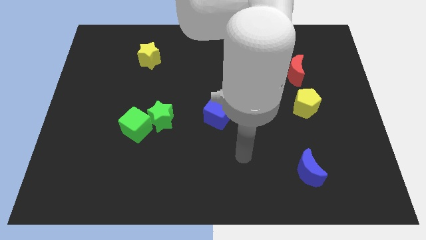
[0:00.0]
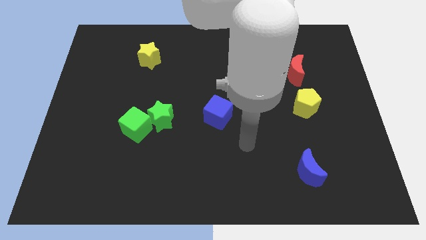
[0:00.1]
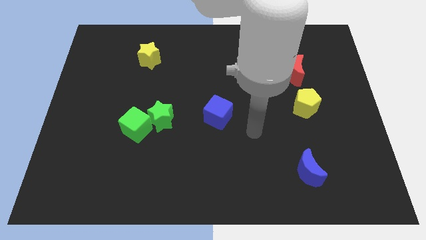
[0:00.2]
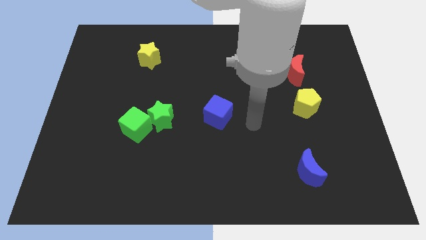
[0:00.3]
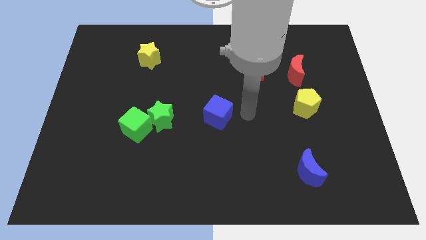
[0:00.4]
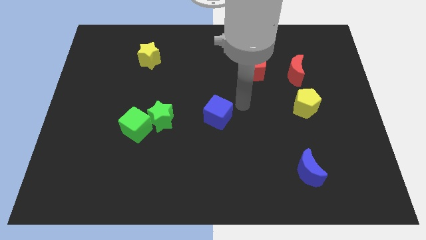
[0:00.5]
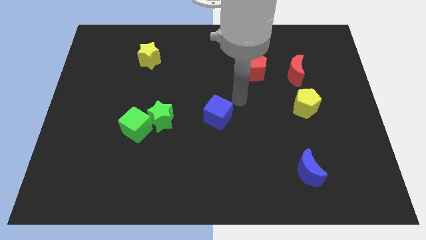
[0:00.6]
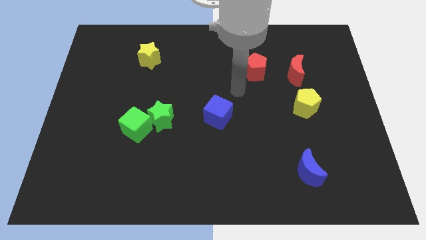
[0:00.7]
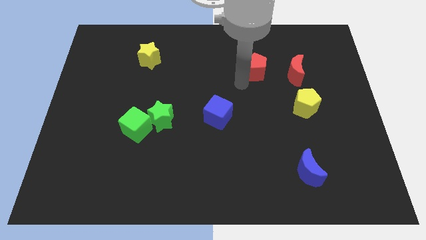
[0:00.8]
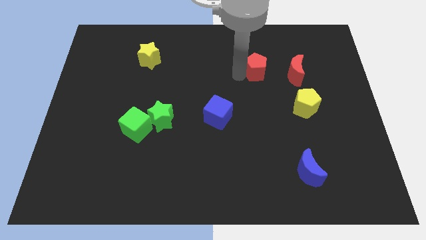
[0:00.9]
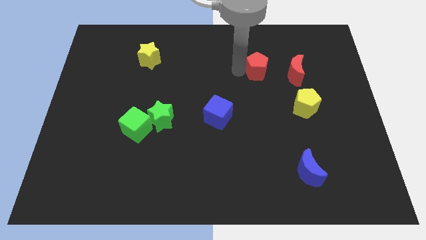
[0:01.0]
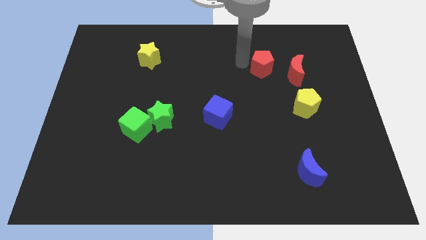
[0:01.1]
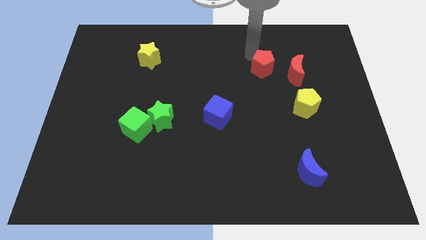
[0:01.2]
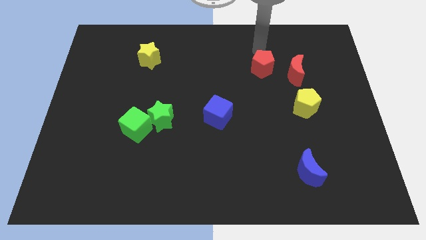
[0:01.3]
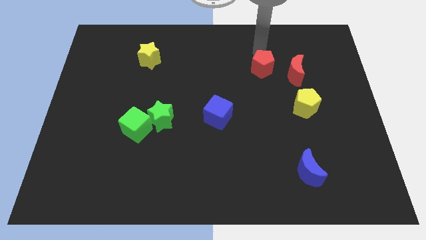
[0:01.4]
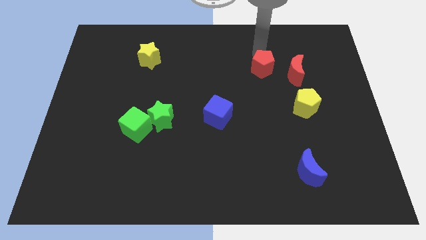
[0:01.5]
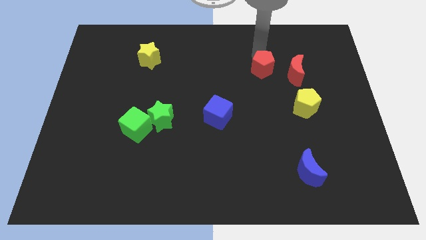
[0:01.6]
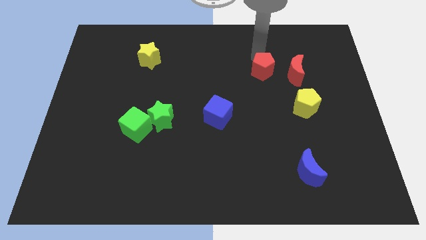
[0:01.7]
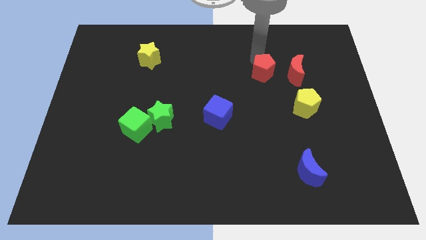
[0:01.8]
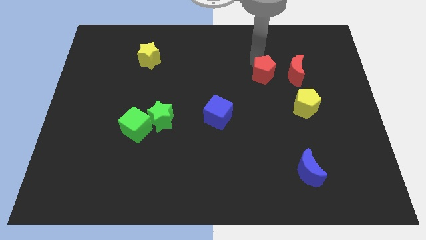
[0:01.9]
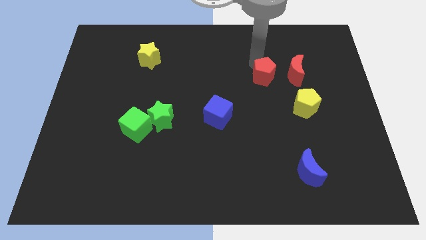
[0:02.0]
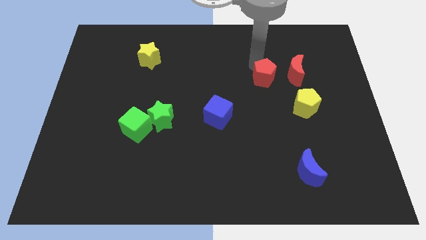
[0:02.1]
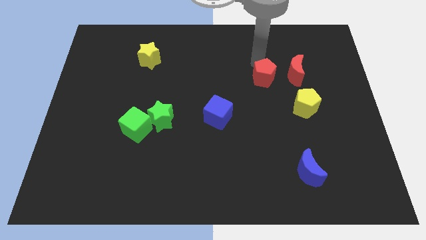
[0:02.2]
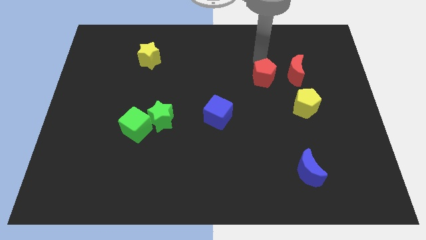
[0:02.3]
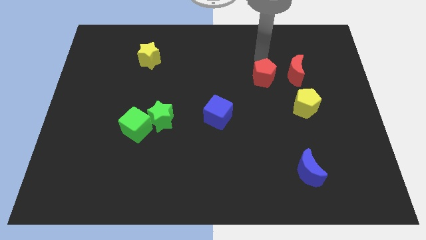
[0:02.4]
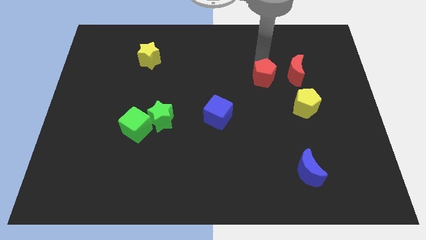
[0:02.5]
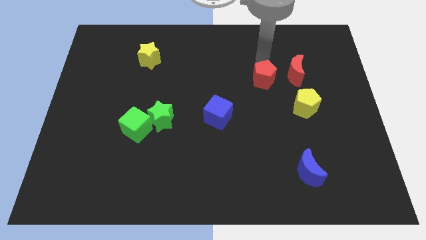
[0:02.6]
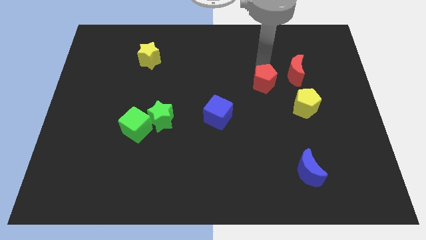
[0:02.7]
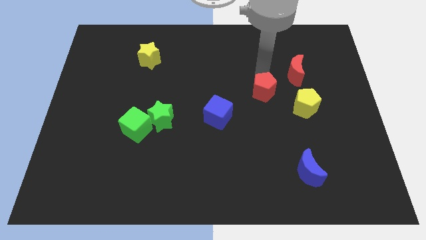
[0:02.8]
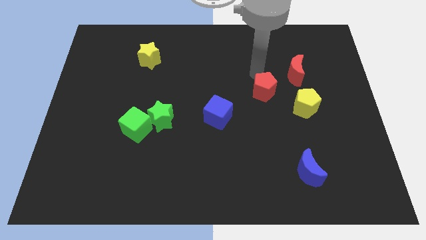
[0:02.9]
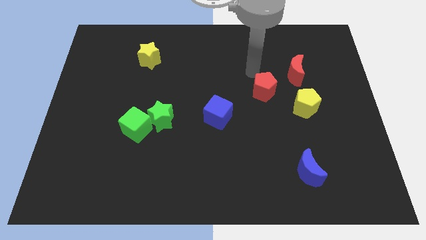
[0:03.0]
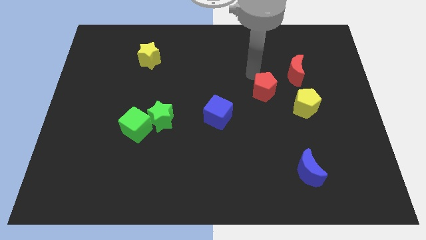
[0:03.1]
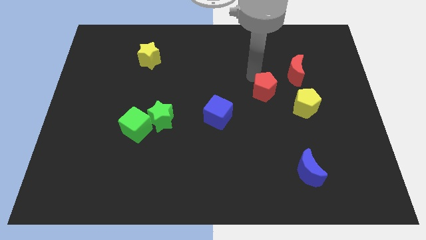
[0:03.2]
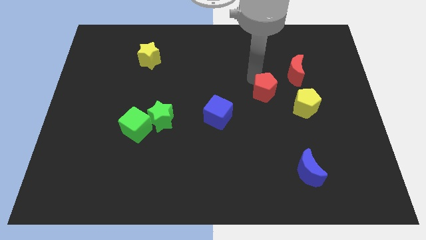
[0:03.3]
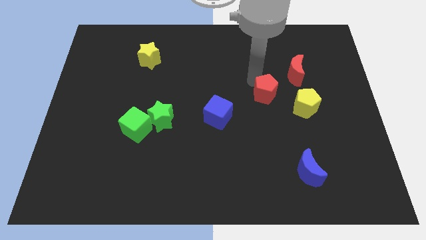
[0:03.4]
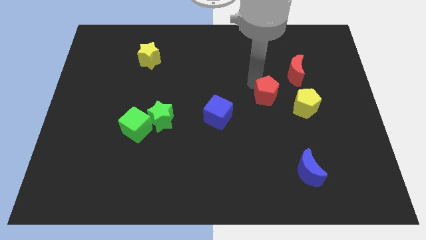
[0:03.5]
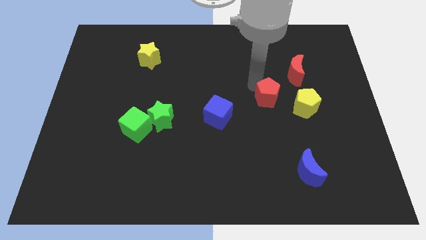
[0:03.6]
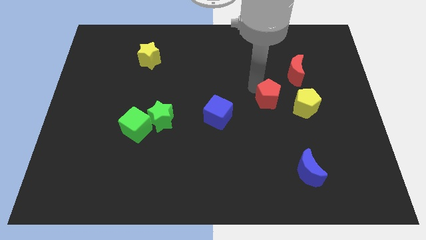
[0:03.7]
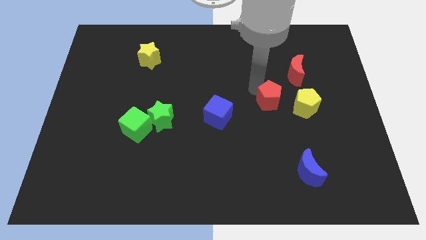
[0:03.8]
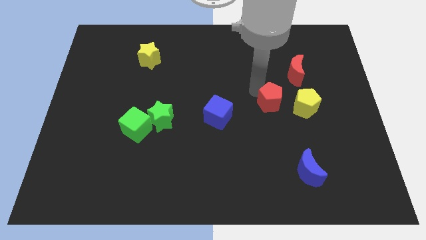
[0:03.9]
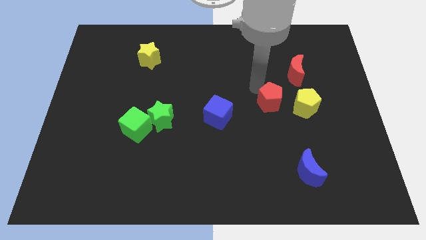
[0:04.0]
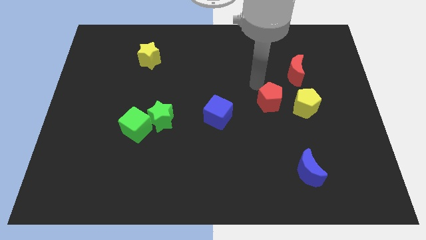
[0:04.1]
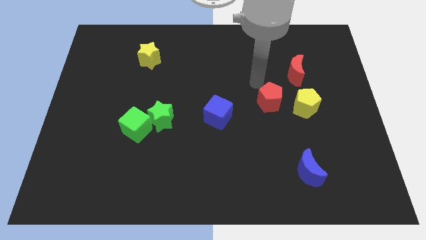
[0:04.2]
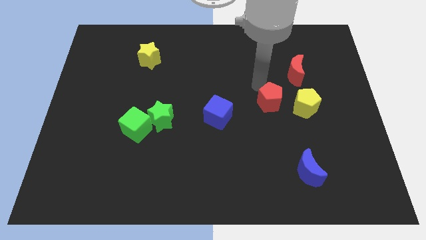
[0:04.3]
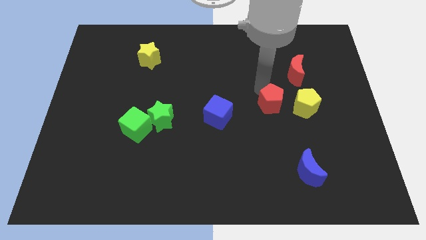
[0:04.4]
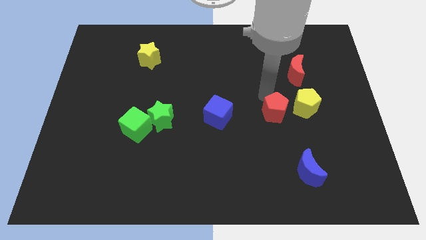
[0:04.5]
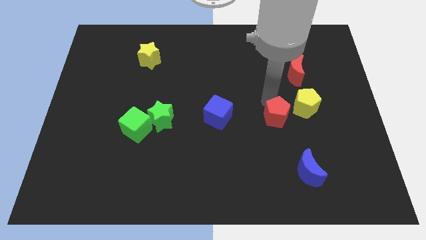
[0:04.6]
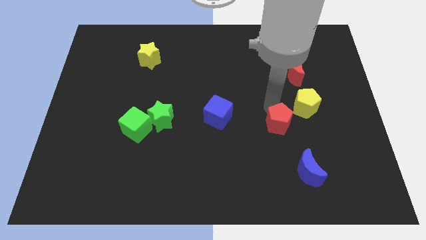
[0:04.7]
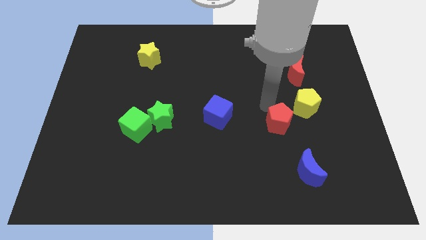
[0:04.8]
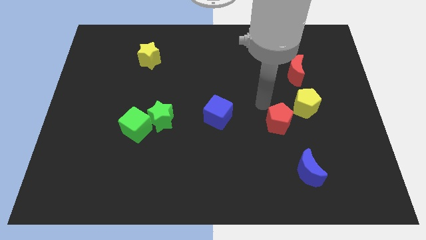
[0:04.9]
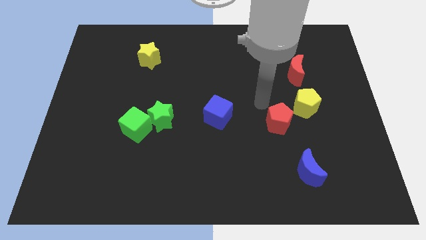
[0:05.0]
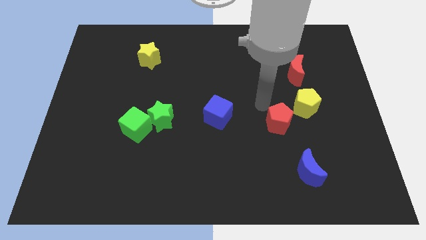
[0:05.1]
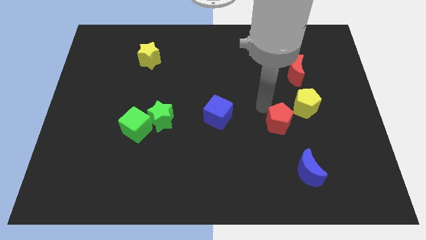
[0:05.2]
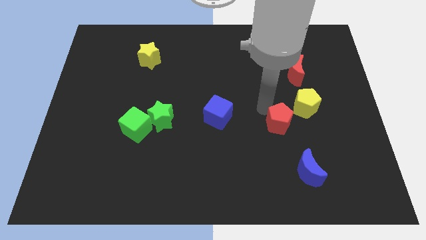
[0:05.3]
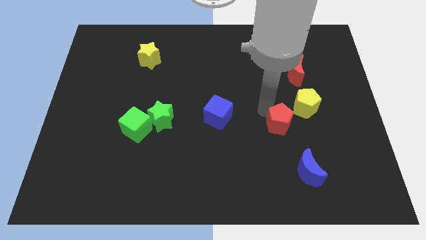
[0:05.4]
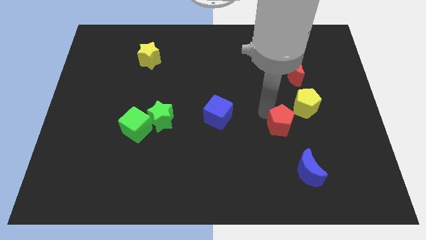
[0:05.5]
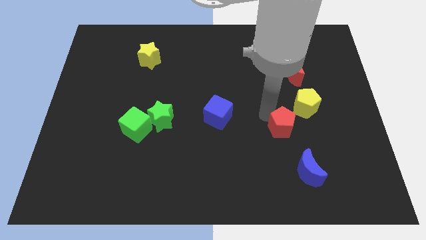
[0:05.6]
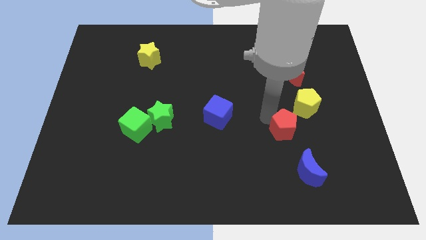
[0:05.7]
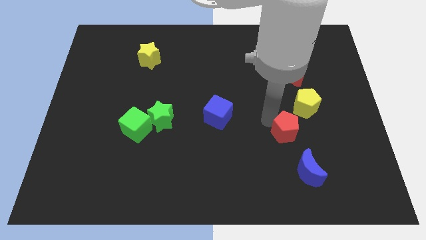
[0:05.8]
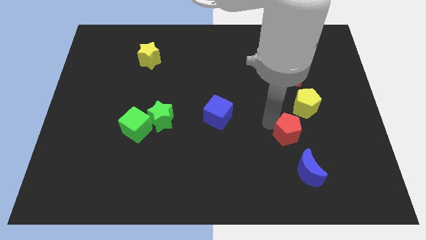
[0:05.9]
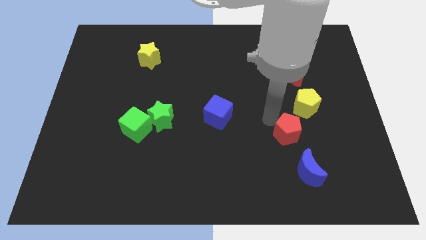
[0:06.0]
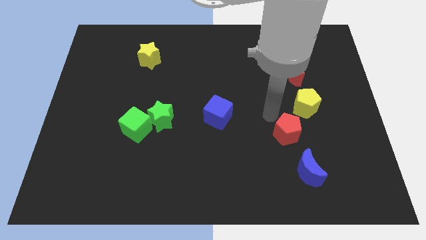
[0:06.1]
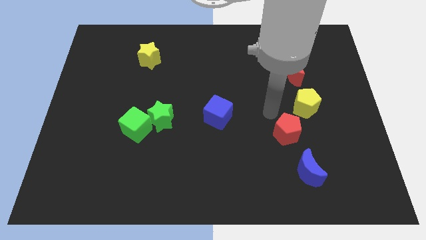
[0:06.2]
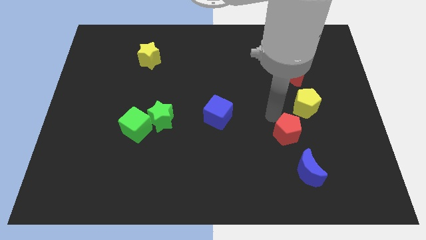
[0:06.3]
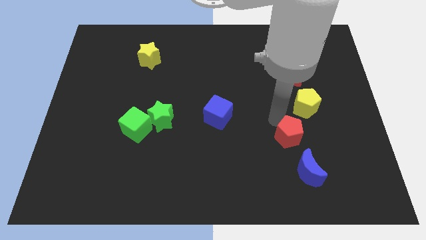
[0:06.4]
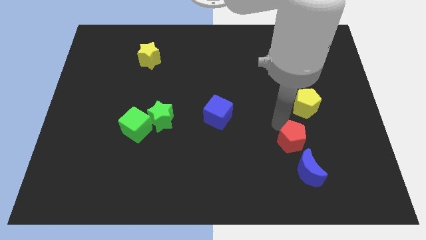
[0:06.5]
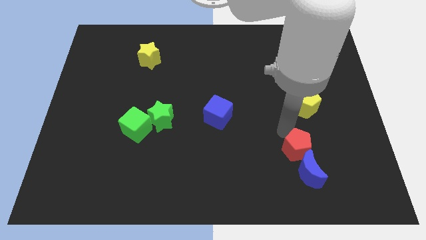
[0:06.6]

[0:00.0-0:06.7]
push the red pentagon towards the blue moon
